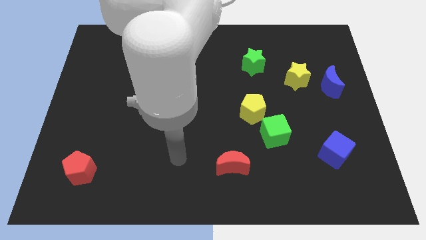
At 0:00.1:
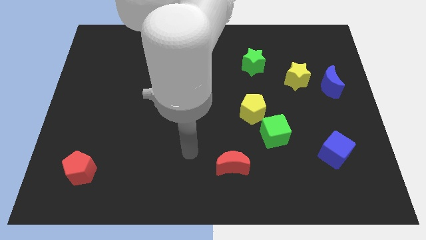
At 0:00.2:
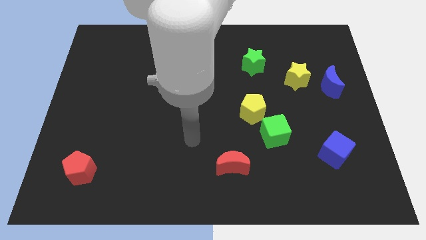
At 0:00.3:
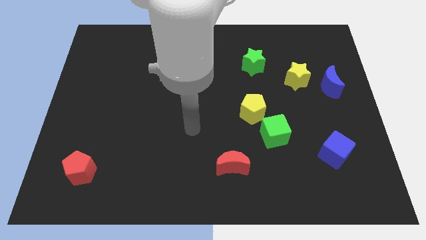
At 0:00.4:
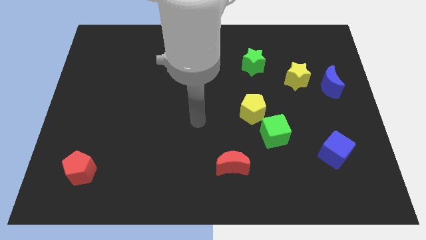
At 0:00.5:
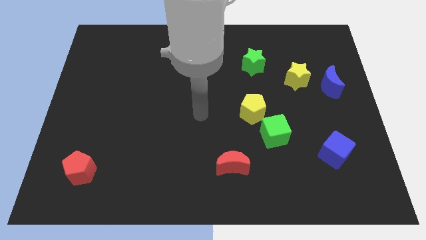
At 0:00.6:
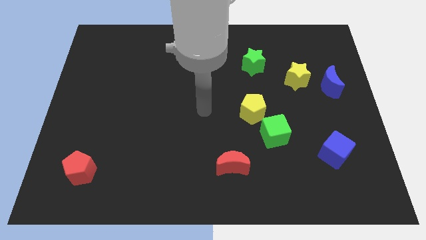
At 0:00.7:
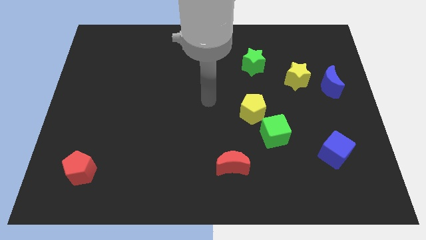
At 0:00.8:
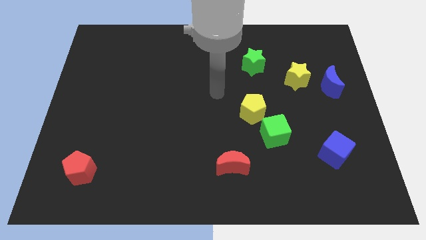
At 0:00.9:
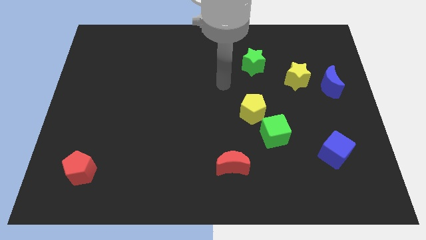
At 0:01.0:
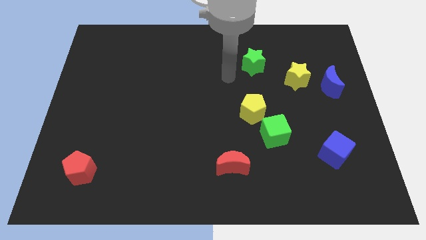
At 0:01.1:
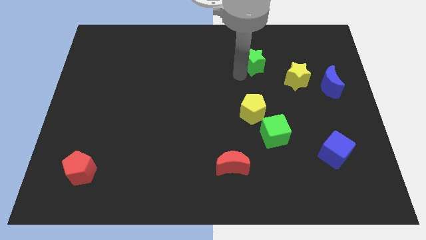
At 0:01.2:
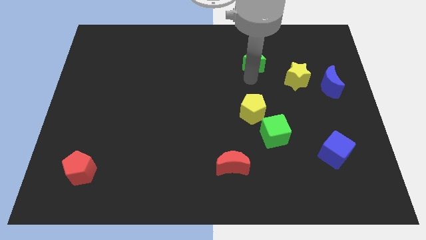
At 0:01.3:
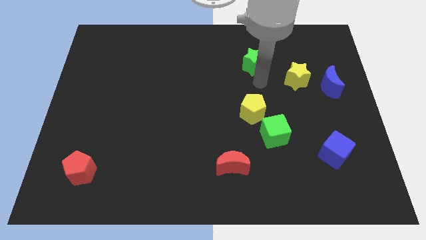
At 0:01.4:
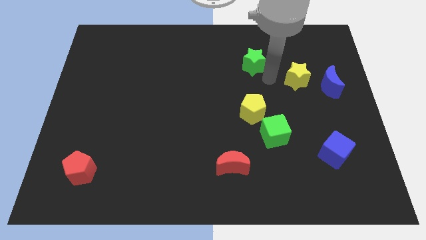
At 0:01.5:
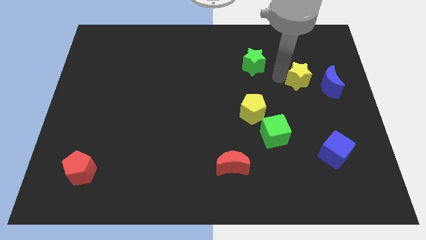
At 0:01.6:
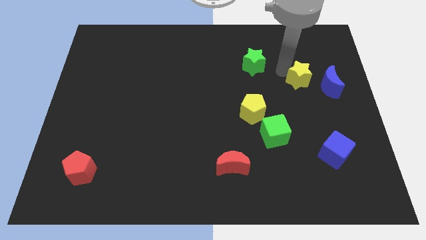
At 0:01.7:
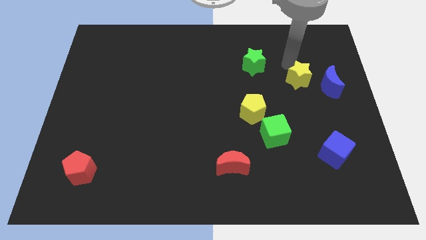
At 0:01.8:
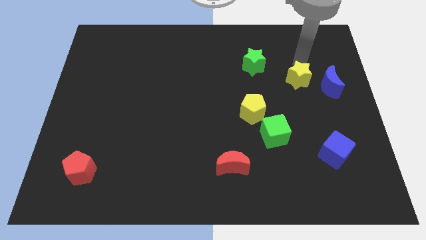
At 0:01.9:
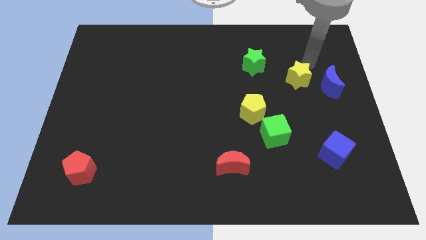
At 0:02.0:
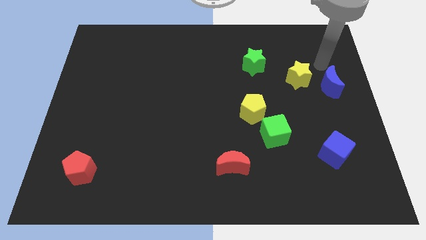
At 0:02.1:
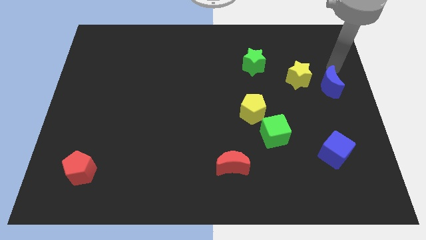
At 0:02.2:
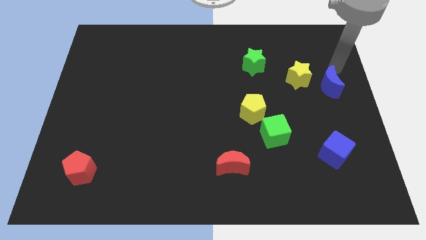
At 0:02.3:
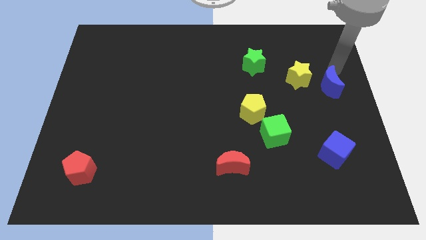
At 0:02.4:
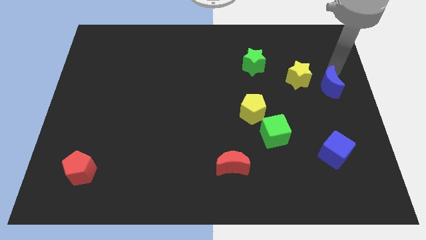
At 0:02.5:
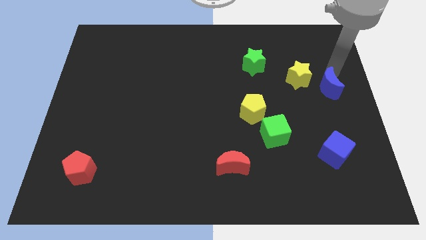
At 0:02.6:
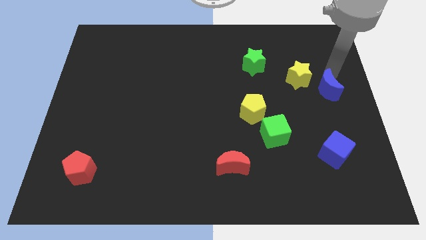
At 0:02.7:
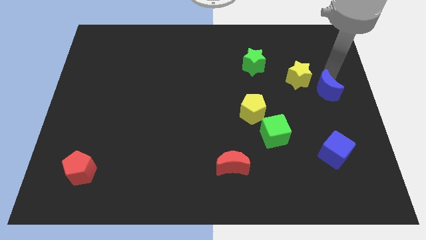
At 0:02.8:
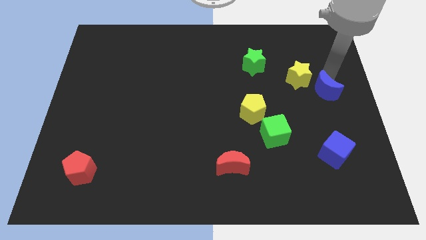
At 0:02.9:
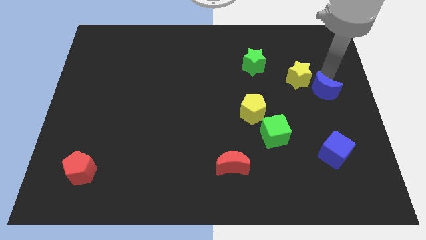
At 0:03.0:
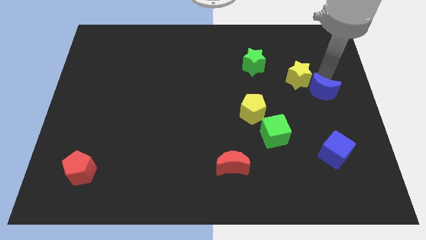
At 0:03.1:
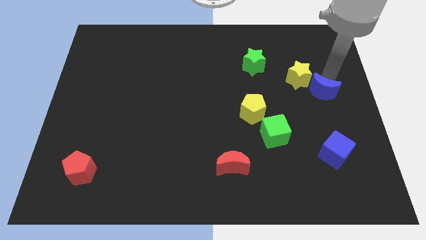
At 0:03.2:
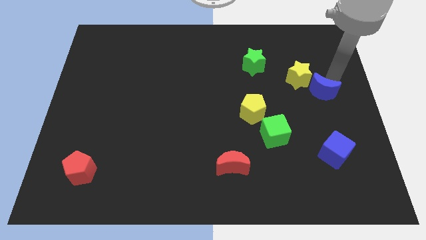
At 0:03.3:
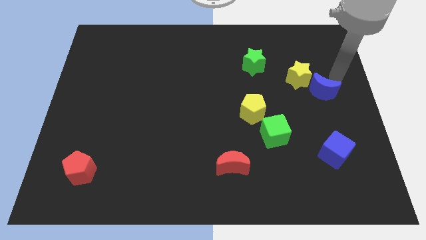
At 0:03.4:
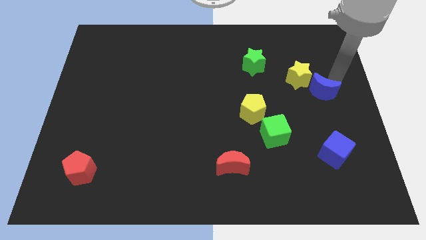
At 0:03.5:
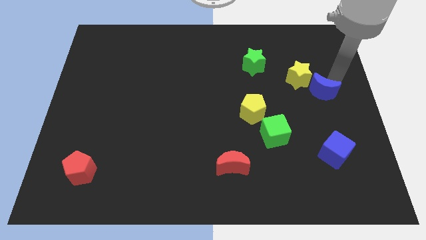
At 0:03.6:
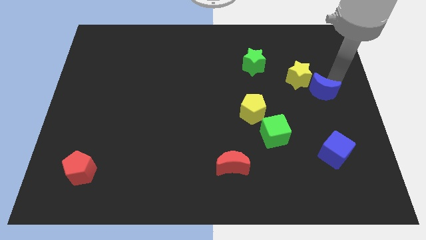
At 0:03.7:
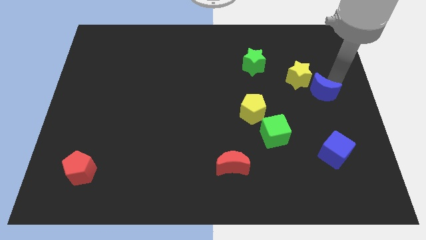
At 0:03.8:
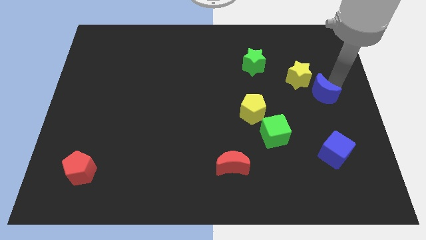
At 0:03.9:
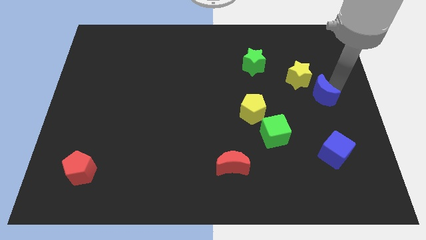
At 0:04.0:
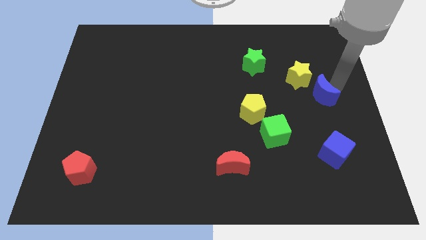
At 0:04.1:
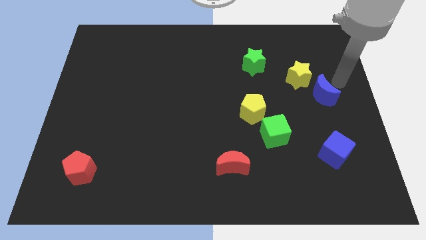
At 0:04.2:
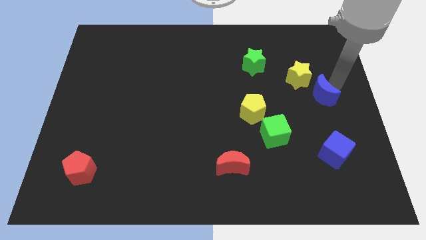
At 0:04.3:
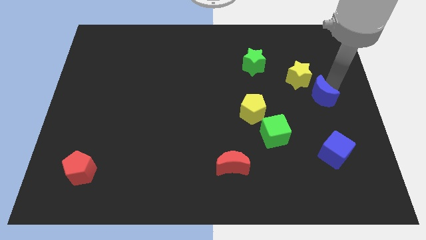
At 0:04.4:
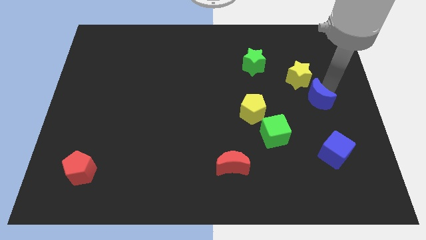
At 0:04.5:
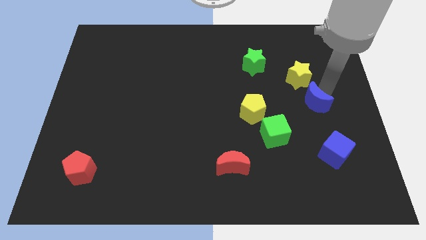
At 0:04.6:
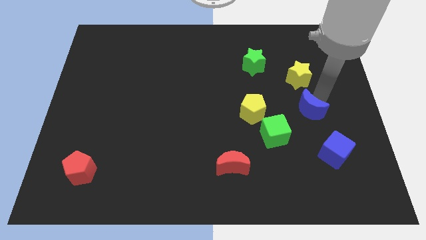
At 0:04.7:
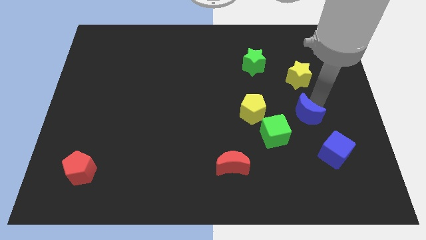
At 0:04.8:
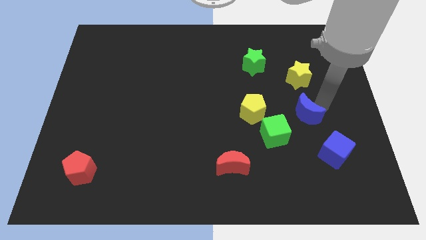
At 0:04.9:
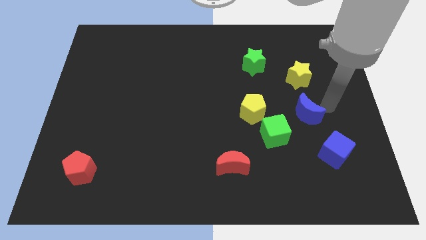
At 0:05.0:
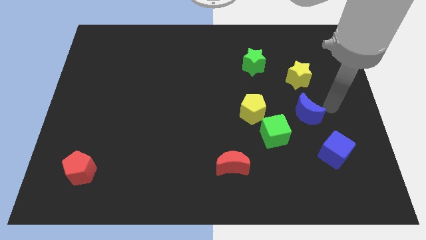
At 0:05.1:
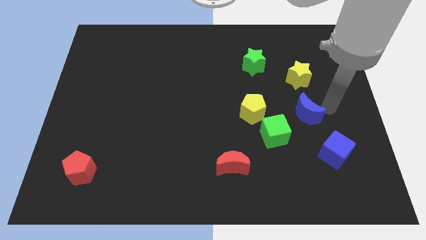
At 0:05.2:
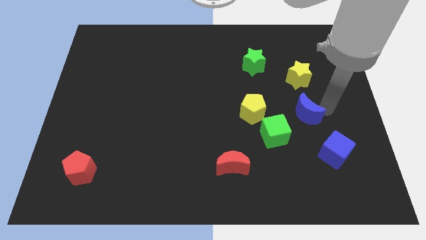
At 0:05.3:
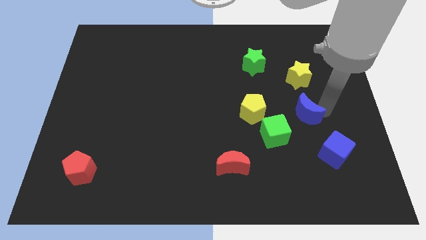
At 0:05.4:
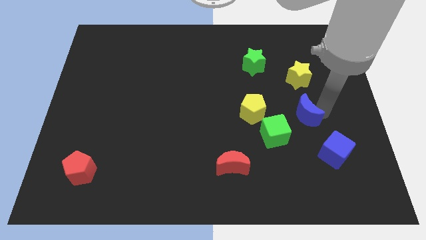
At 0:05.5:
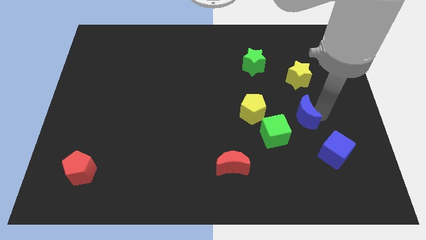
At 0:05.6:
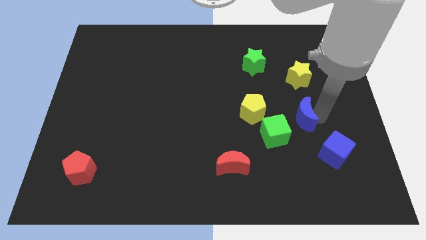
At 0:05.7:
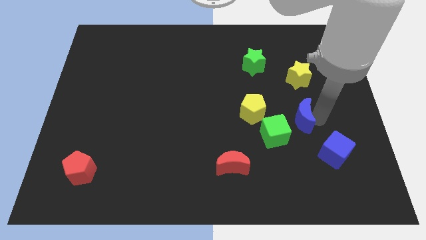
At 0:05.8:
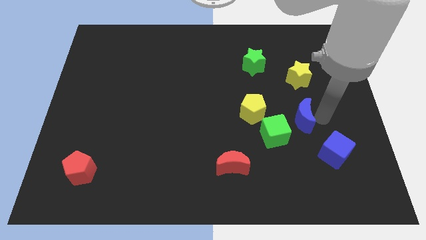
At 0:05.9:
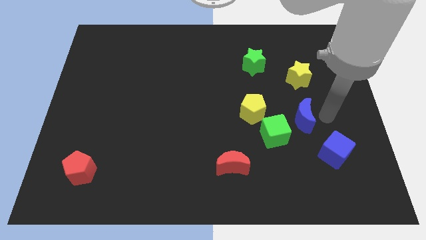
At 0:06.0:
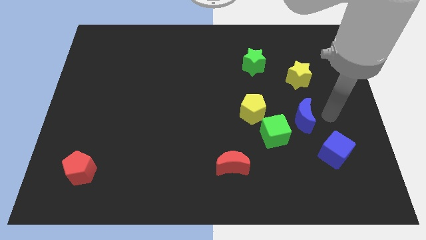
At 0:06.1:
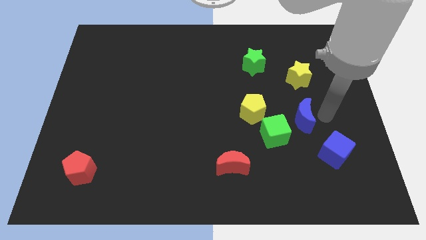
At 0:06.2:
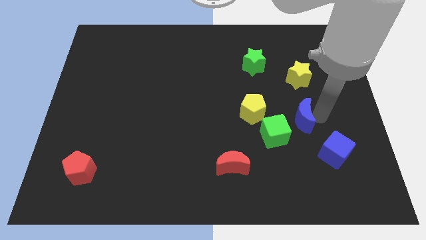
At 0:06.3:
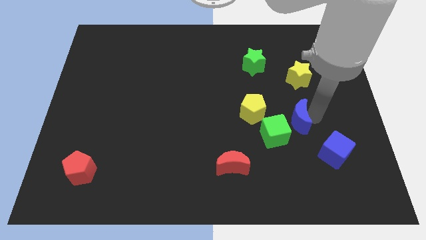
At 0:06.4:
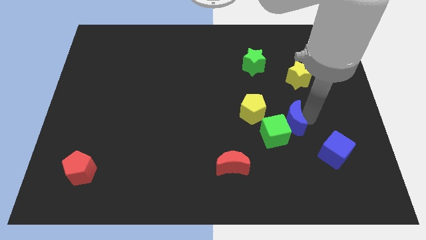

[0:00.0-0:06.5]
put the blue moon to the green cube

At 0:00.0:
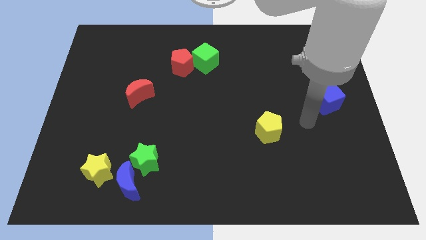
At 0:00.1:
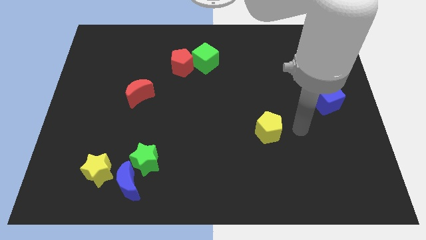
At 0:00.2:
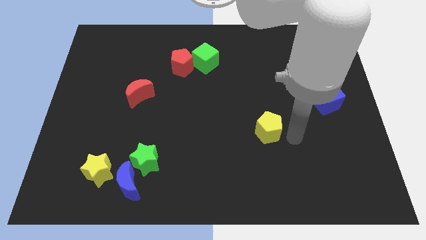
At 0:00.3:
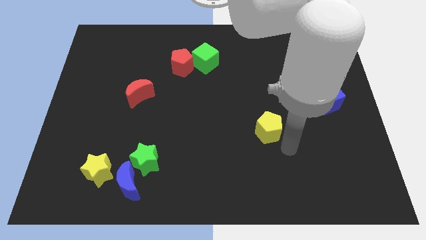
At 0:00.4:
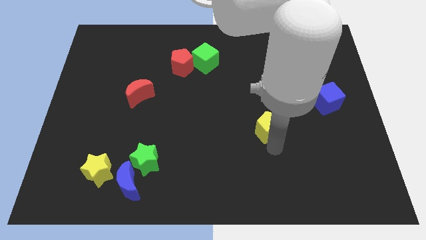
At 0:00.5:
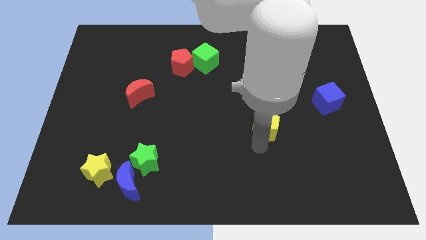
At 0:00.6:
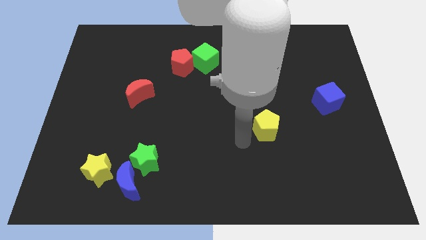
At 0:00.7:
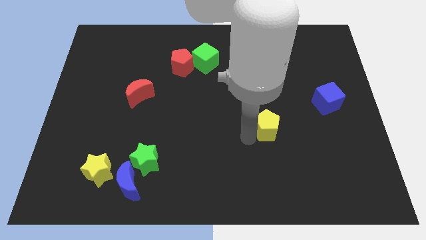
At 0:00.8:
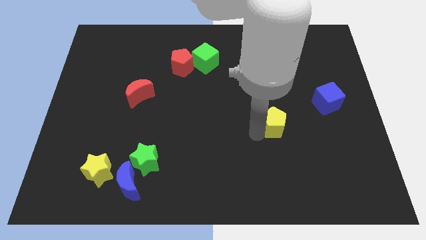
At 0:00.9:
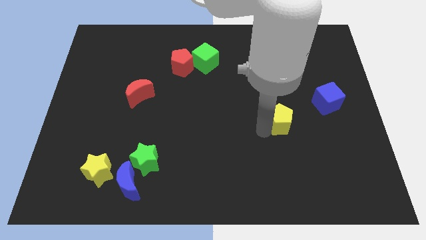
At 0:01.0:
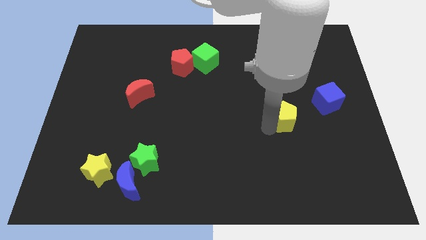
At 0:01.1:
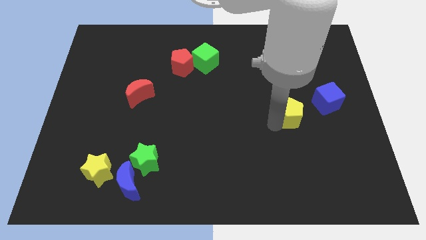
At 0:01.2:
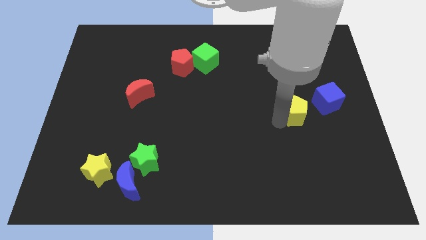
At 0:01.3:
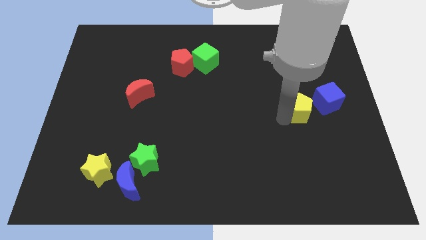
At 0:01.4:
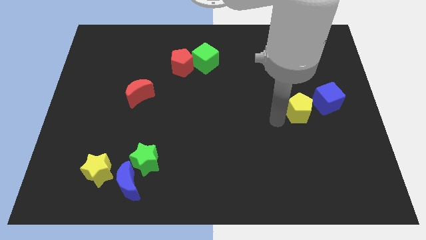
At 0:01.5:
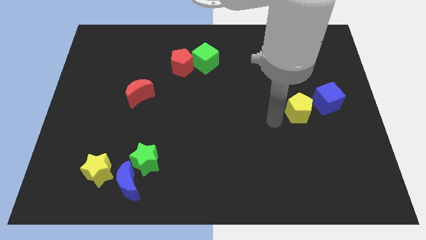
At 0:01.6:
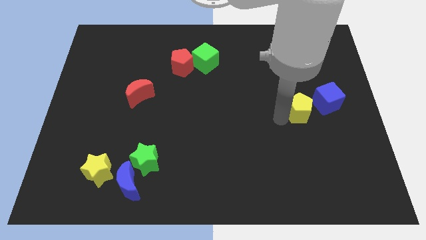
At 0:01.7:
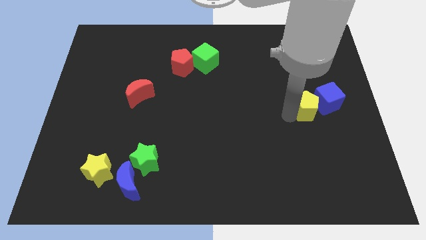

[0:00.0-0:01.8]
slide the yellow pentagon to the blue cube
